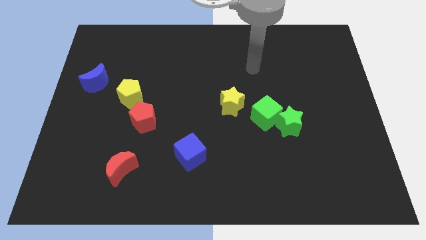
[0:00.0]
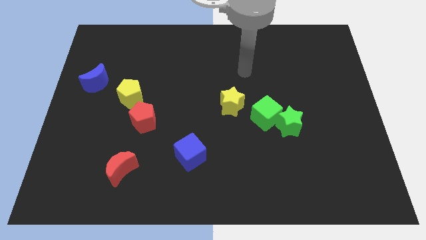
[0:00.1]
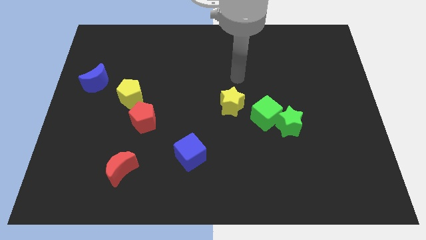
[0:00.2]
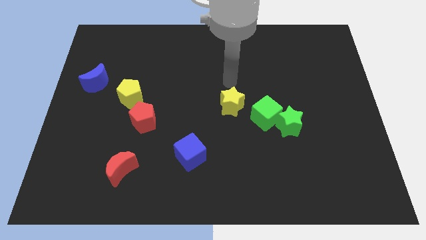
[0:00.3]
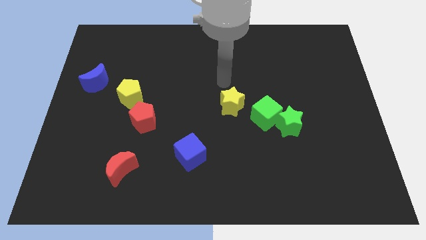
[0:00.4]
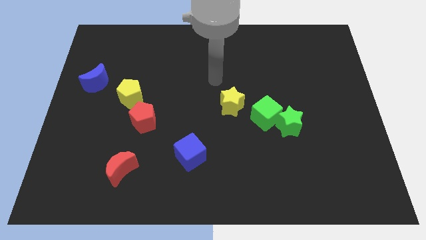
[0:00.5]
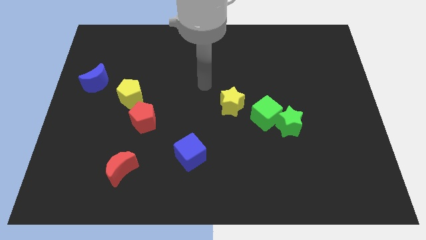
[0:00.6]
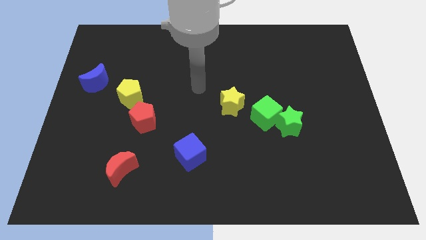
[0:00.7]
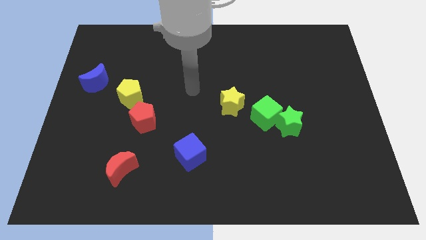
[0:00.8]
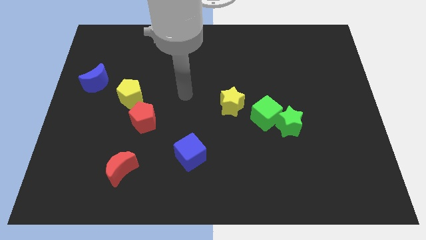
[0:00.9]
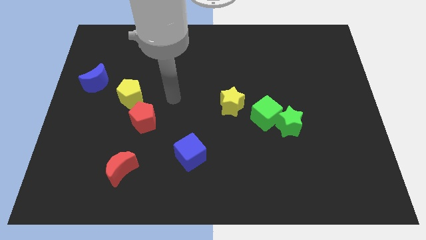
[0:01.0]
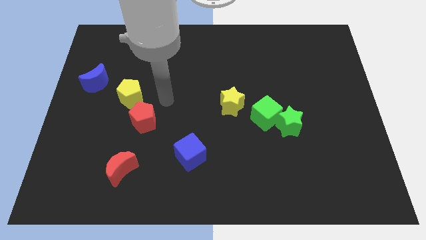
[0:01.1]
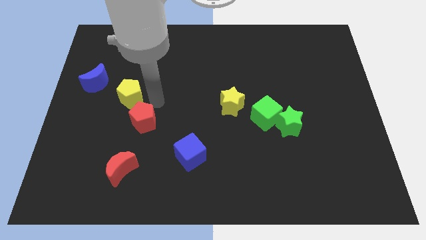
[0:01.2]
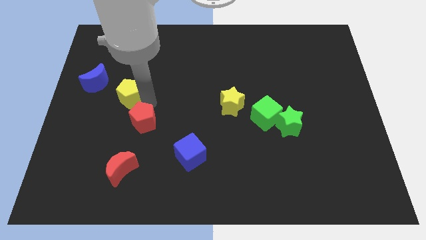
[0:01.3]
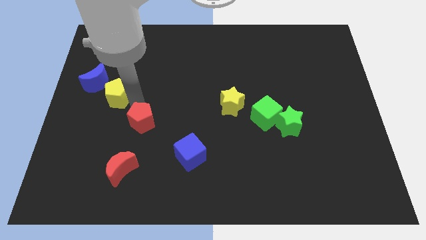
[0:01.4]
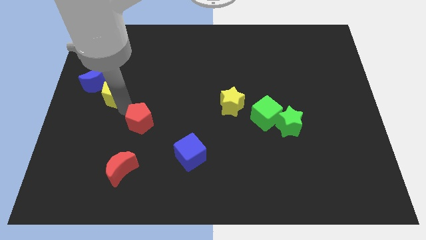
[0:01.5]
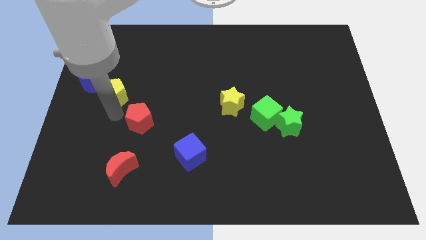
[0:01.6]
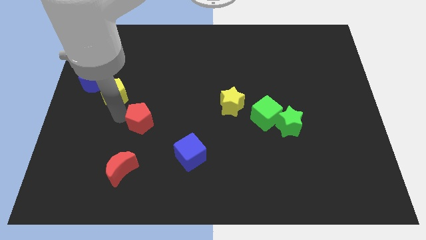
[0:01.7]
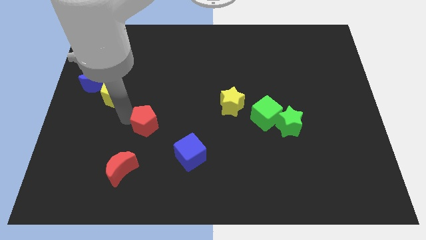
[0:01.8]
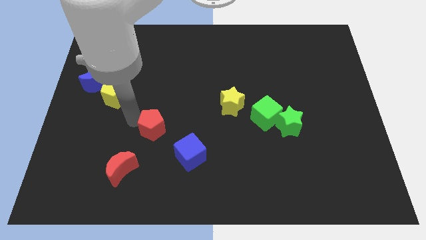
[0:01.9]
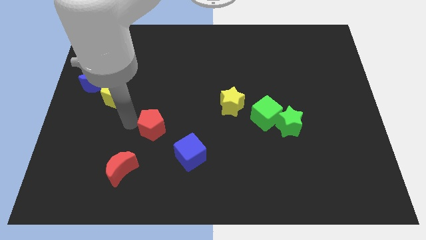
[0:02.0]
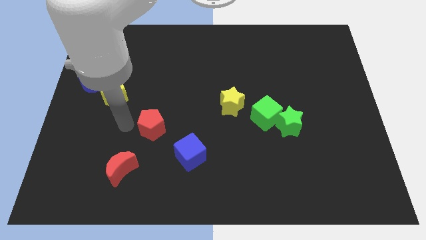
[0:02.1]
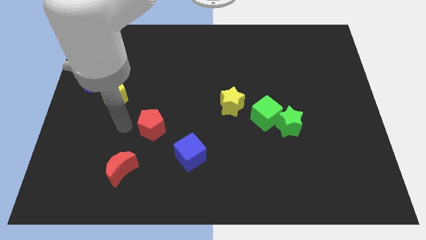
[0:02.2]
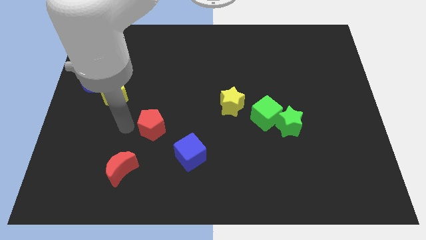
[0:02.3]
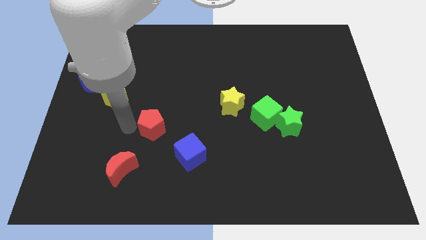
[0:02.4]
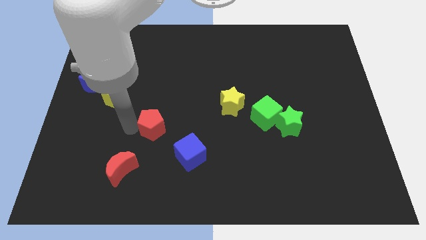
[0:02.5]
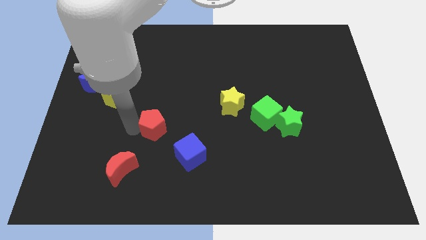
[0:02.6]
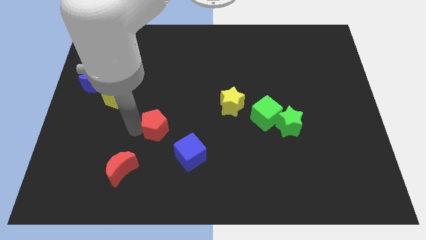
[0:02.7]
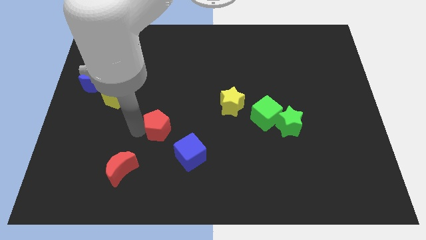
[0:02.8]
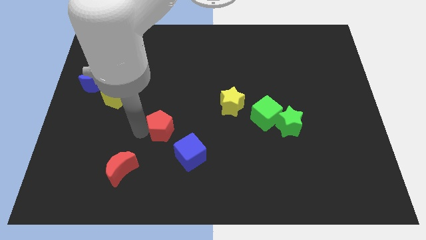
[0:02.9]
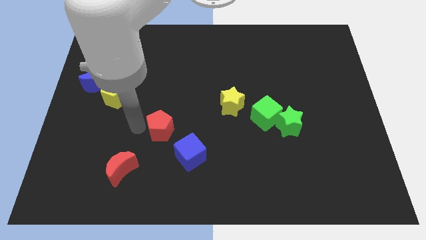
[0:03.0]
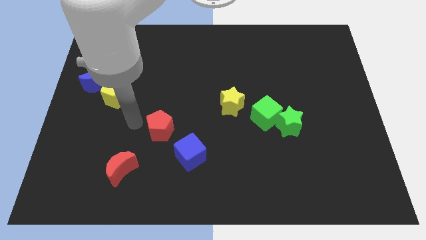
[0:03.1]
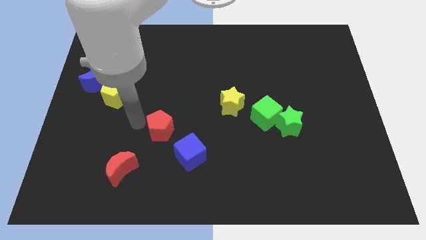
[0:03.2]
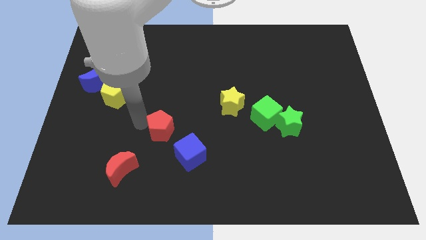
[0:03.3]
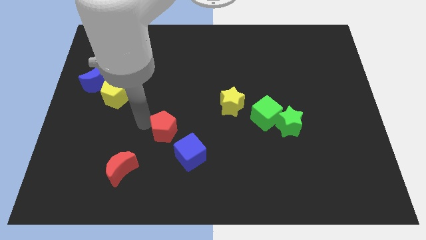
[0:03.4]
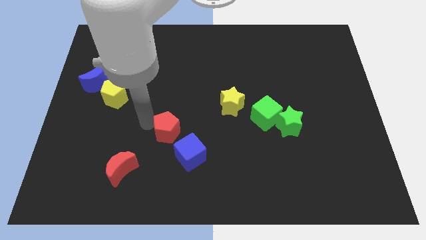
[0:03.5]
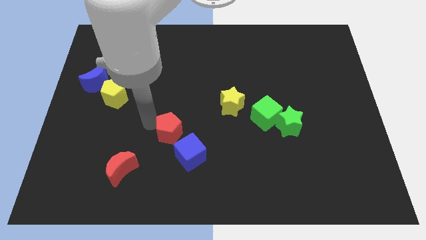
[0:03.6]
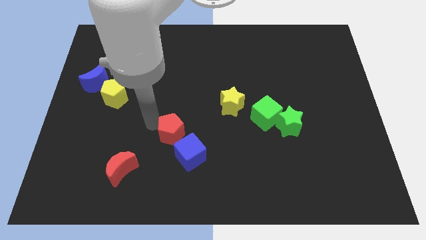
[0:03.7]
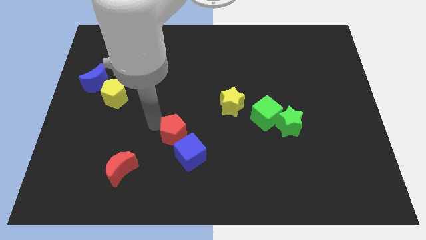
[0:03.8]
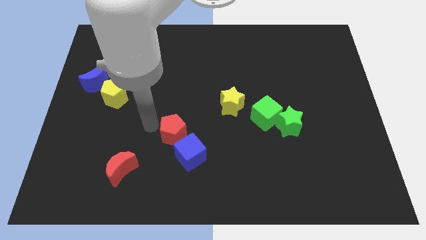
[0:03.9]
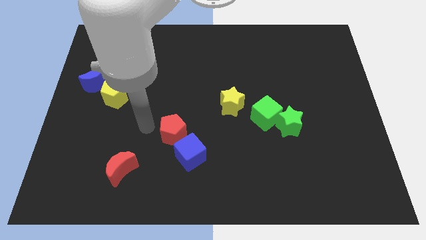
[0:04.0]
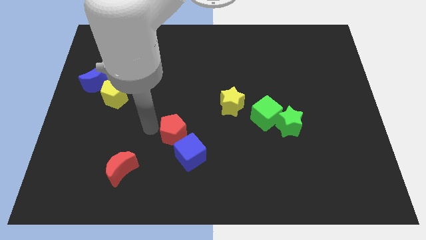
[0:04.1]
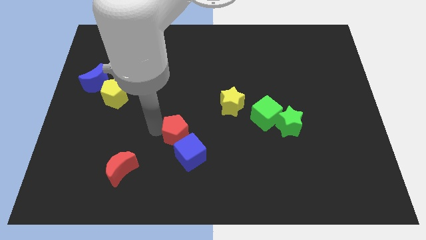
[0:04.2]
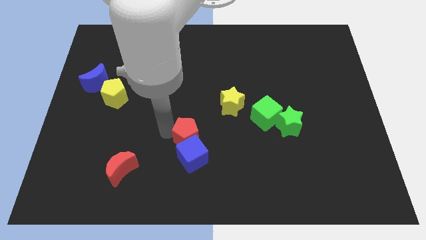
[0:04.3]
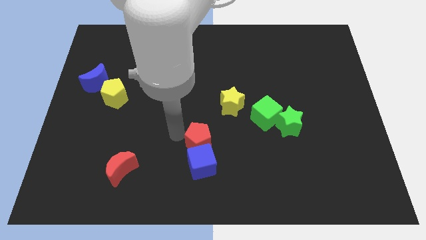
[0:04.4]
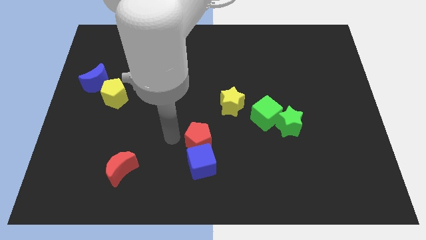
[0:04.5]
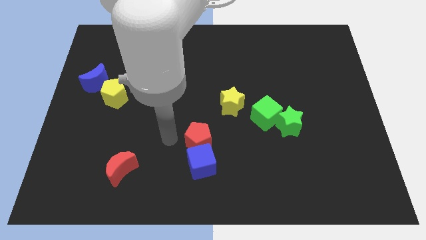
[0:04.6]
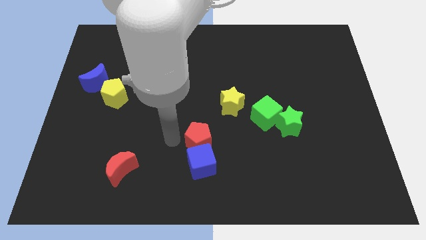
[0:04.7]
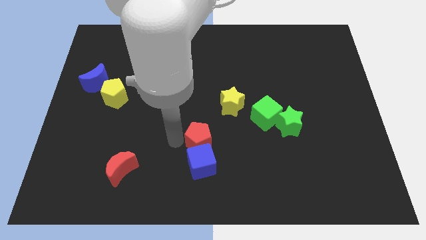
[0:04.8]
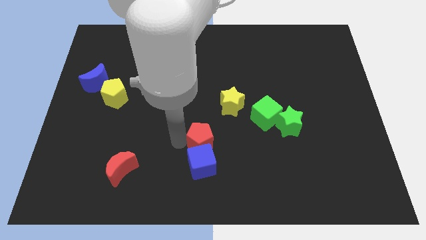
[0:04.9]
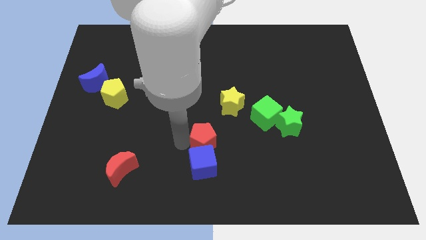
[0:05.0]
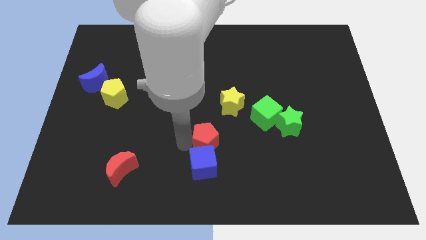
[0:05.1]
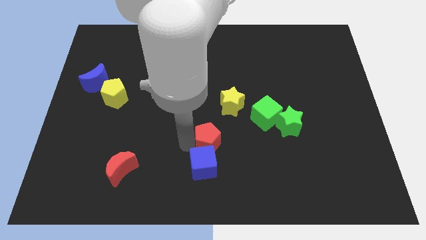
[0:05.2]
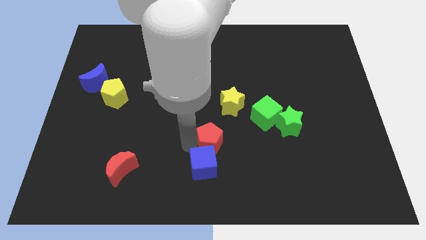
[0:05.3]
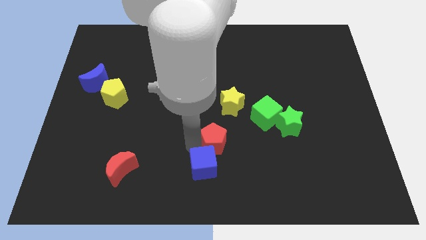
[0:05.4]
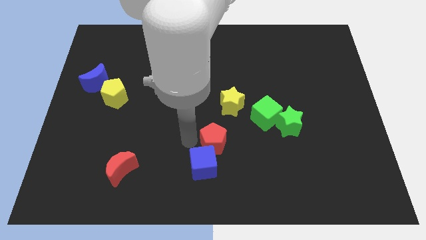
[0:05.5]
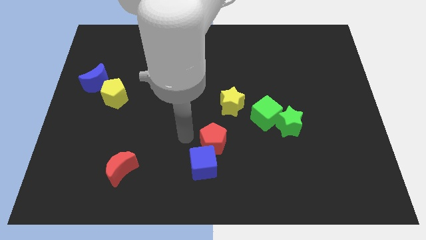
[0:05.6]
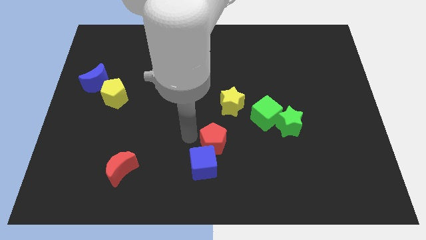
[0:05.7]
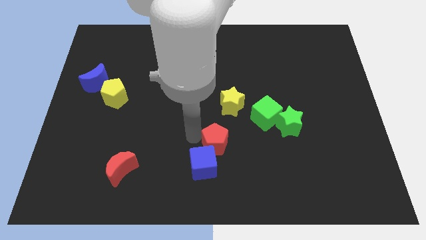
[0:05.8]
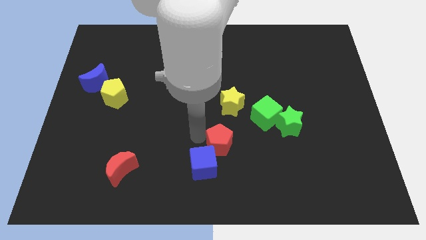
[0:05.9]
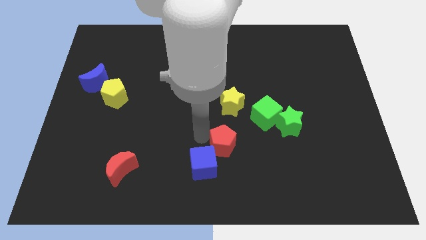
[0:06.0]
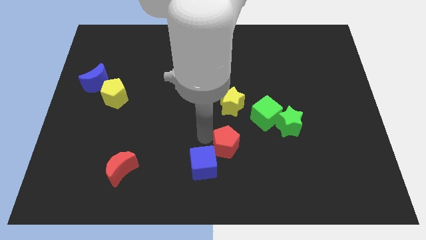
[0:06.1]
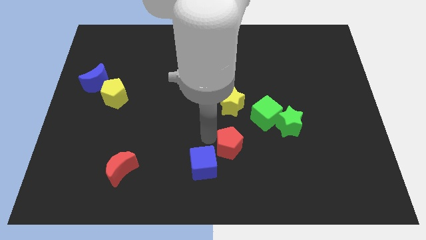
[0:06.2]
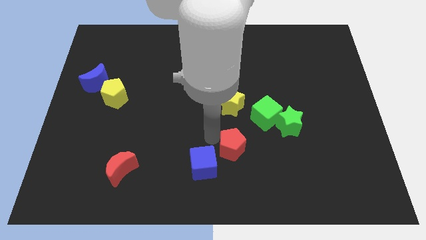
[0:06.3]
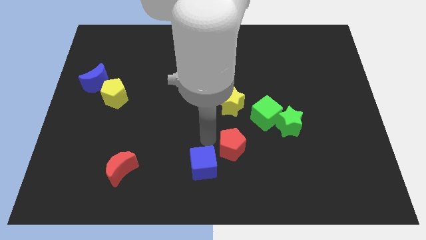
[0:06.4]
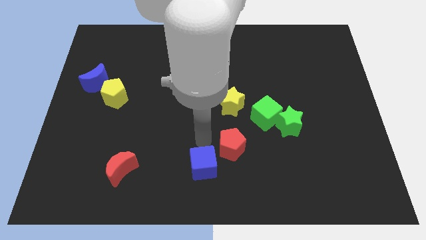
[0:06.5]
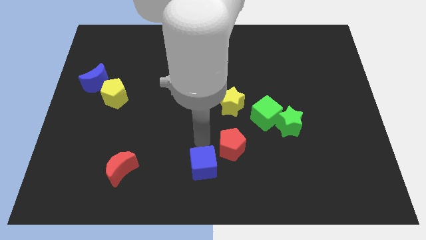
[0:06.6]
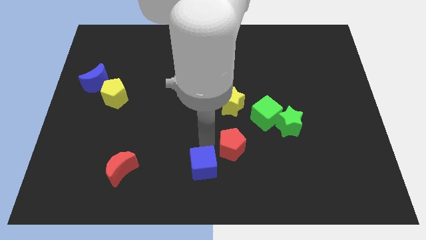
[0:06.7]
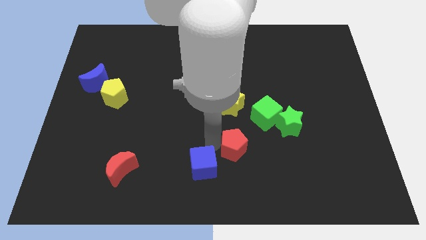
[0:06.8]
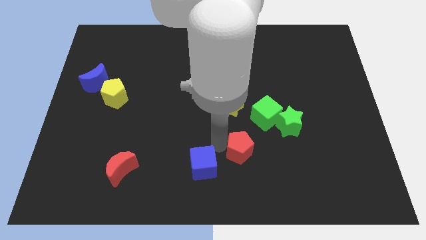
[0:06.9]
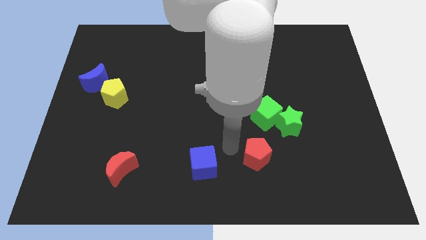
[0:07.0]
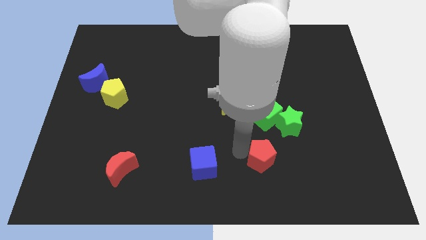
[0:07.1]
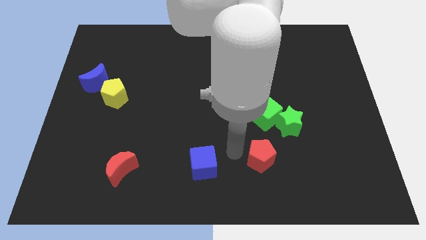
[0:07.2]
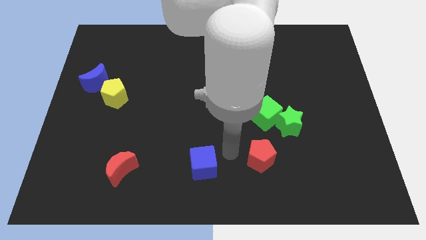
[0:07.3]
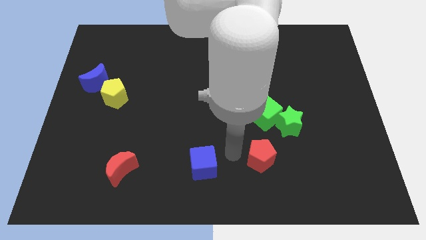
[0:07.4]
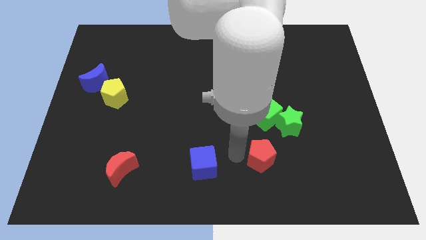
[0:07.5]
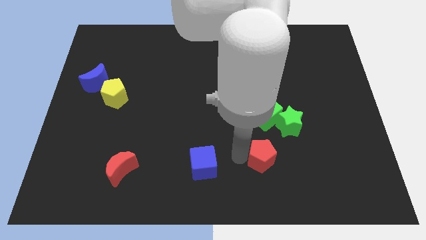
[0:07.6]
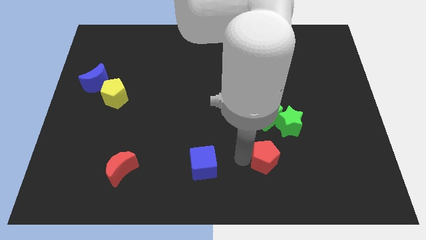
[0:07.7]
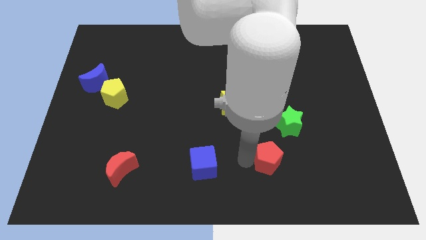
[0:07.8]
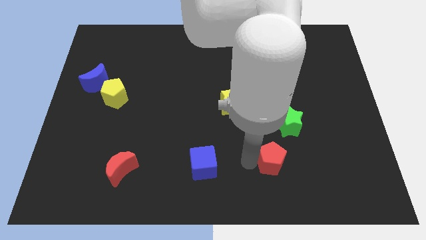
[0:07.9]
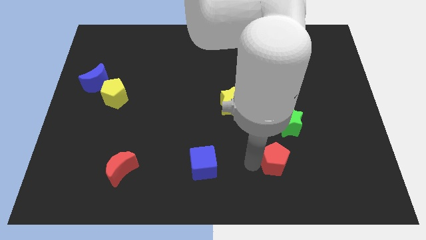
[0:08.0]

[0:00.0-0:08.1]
put the red pentagon to the bottom of the green star
